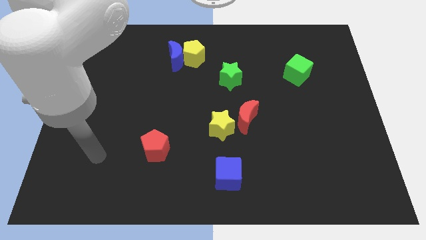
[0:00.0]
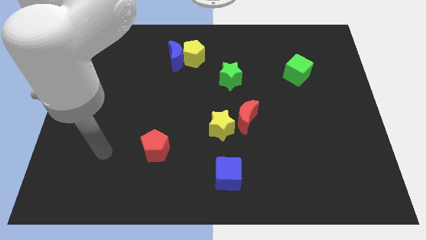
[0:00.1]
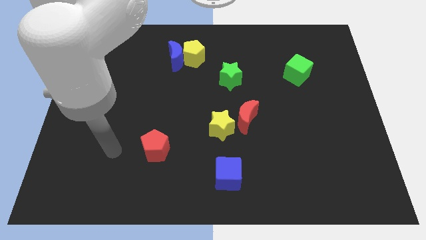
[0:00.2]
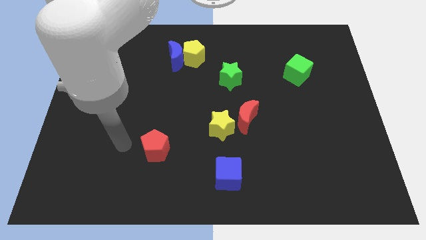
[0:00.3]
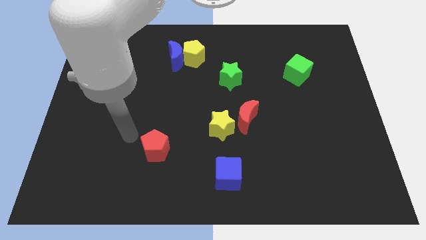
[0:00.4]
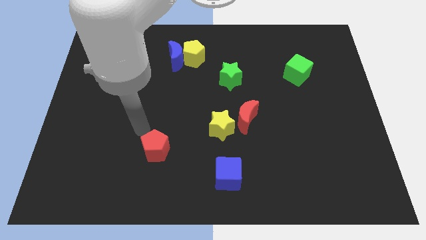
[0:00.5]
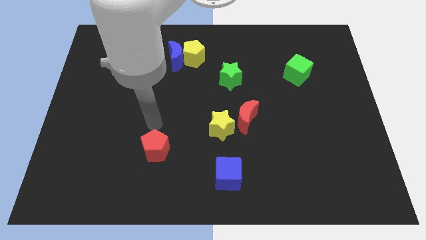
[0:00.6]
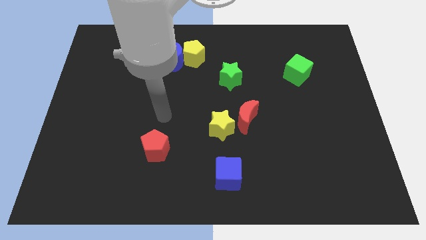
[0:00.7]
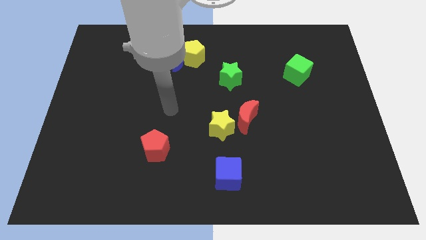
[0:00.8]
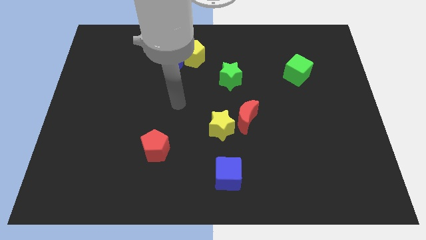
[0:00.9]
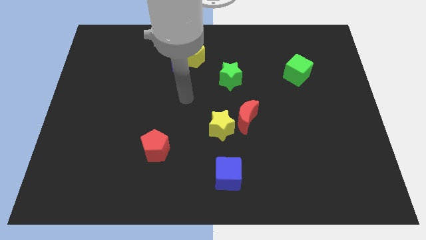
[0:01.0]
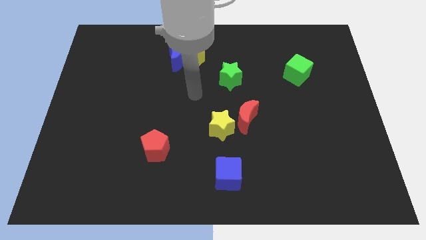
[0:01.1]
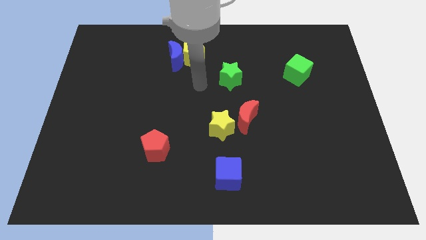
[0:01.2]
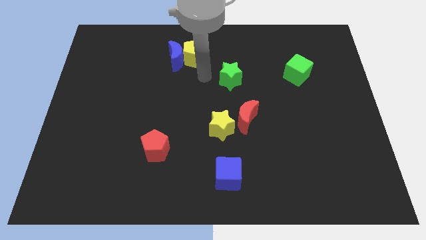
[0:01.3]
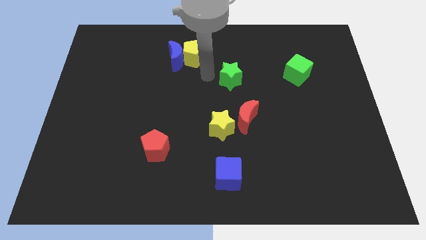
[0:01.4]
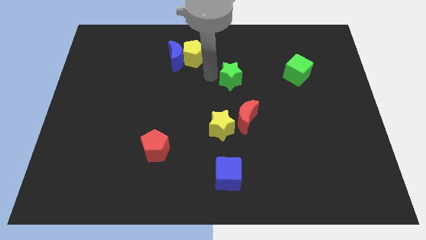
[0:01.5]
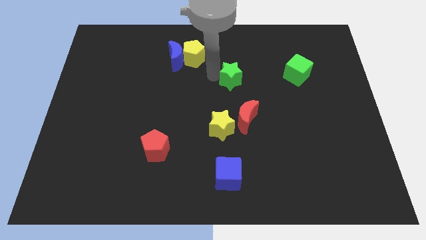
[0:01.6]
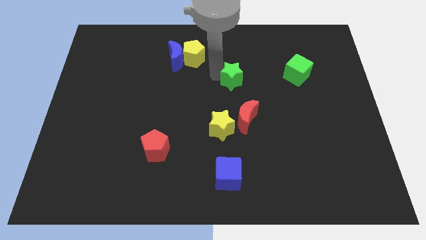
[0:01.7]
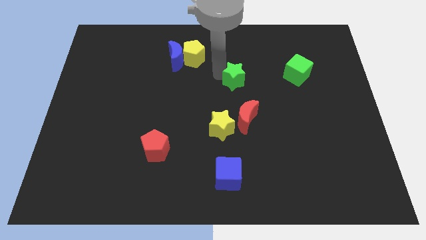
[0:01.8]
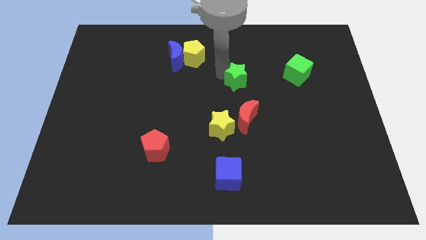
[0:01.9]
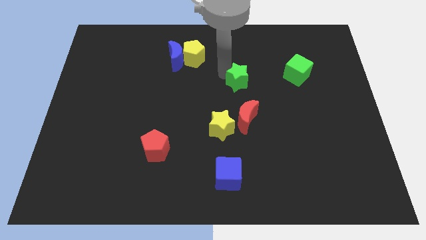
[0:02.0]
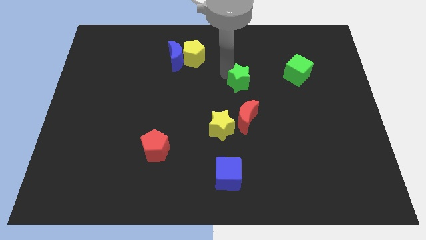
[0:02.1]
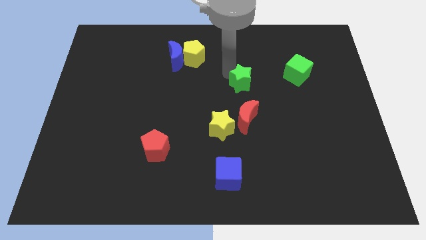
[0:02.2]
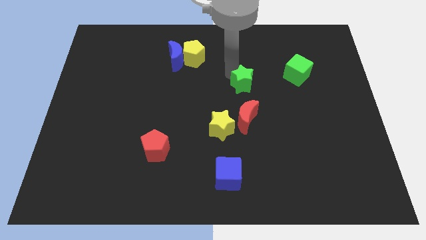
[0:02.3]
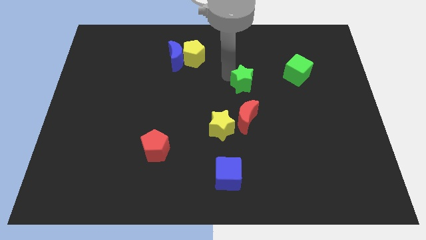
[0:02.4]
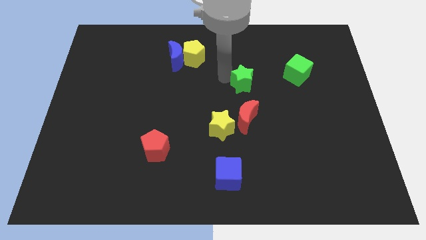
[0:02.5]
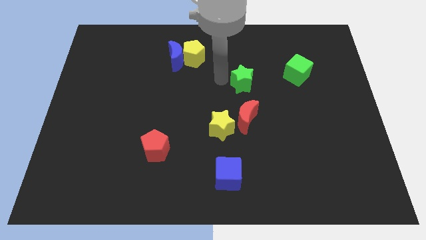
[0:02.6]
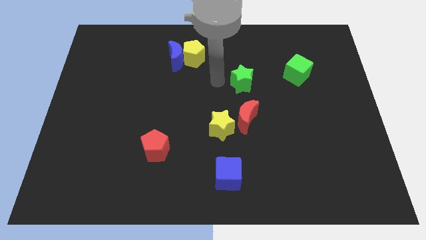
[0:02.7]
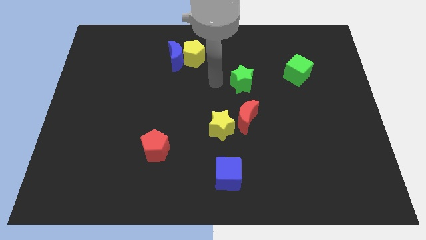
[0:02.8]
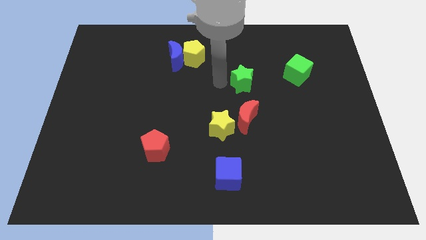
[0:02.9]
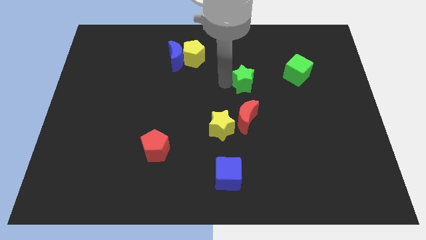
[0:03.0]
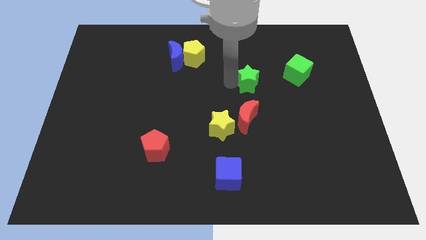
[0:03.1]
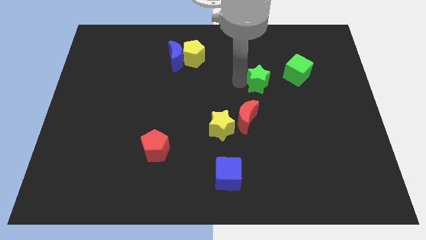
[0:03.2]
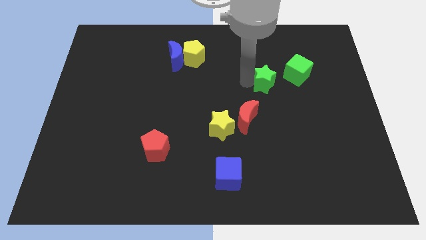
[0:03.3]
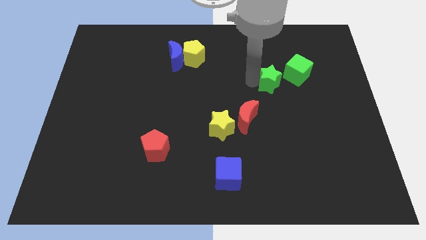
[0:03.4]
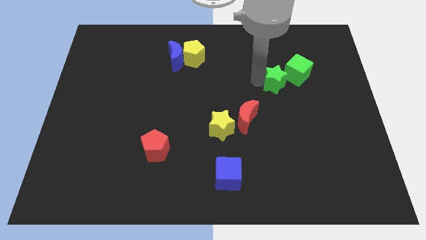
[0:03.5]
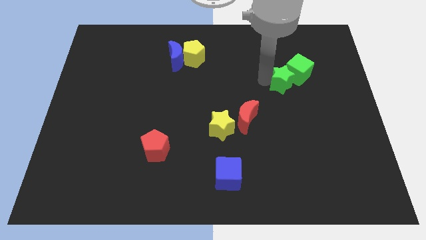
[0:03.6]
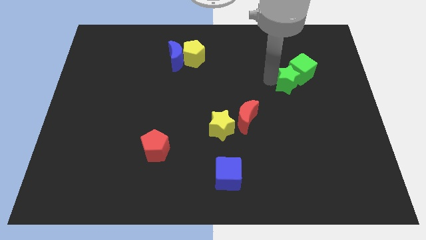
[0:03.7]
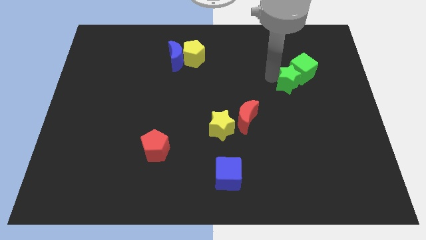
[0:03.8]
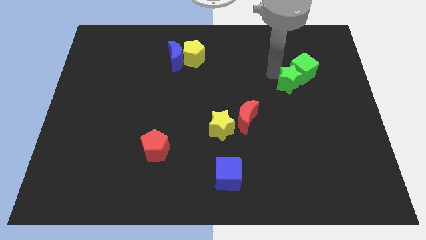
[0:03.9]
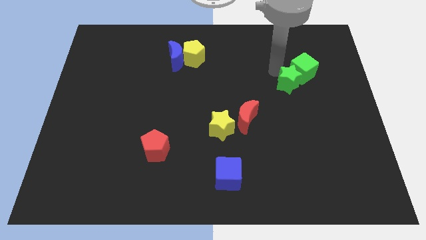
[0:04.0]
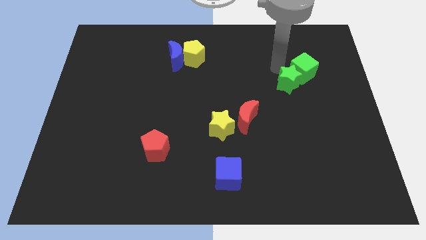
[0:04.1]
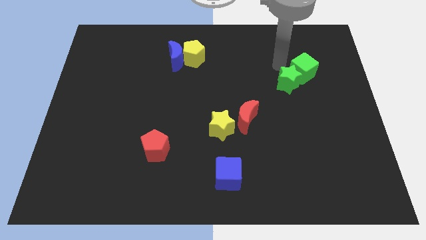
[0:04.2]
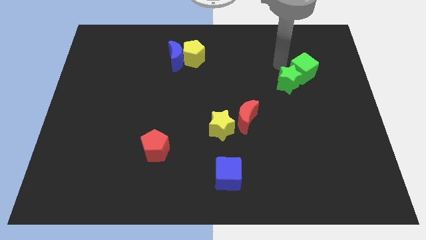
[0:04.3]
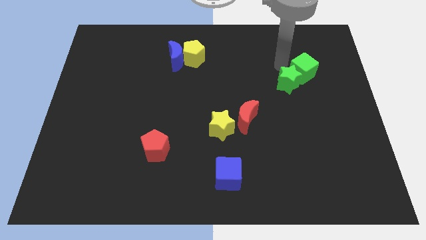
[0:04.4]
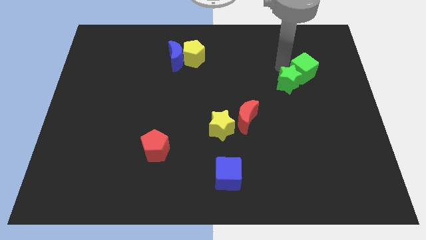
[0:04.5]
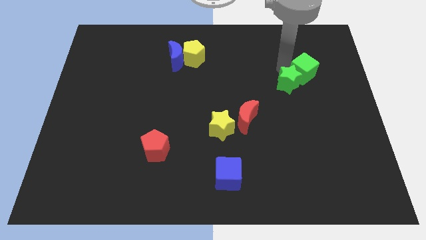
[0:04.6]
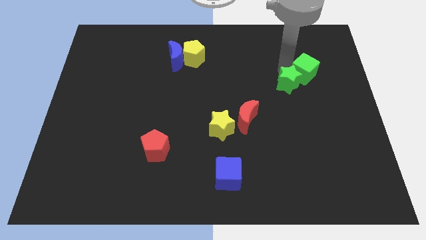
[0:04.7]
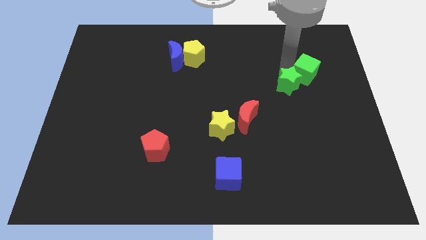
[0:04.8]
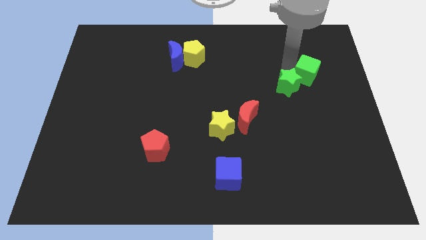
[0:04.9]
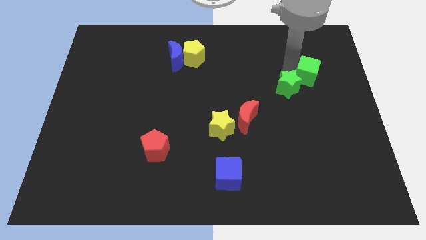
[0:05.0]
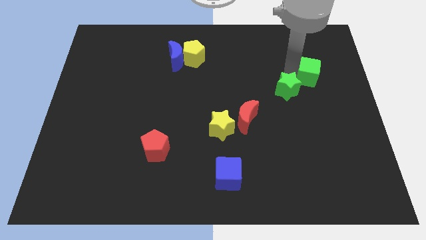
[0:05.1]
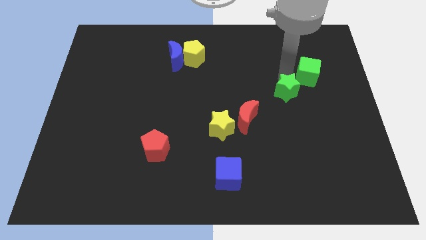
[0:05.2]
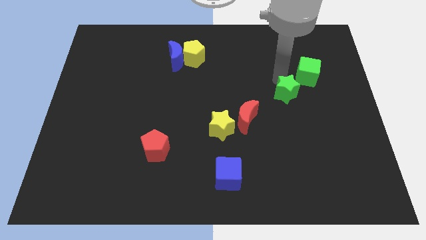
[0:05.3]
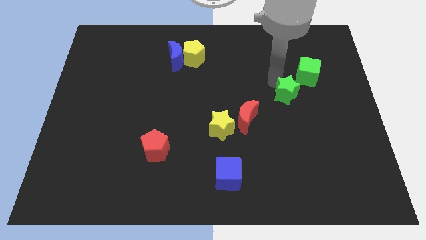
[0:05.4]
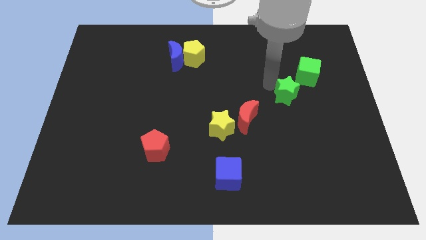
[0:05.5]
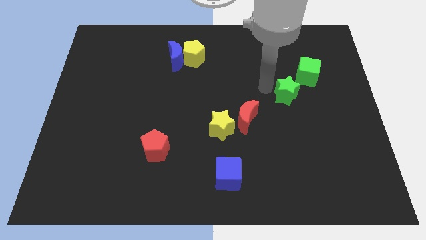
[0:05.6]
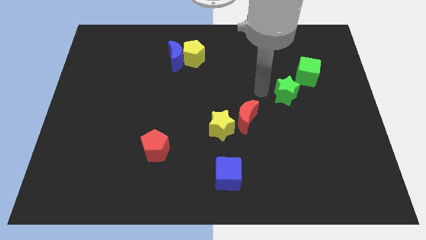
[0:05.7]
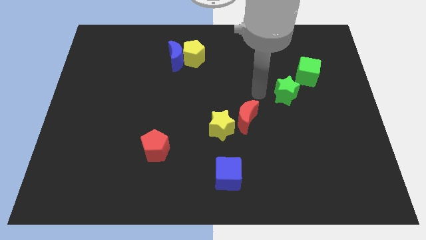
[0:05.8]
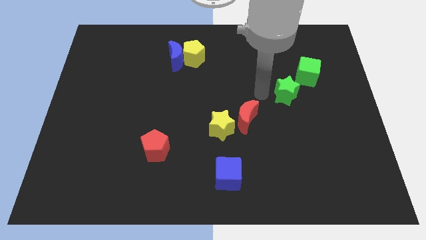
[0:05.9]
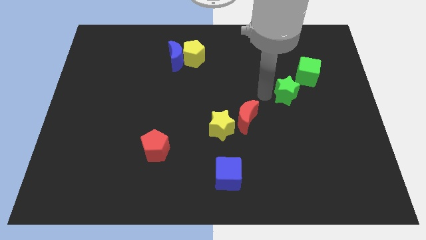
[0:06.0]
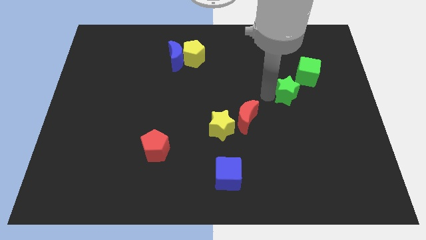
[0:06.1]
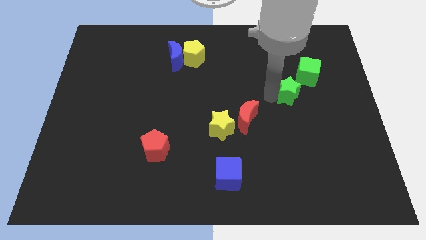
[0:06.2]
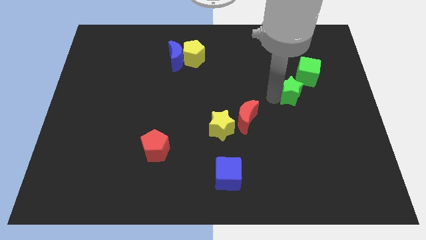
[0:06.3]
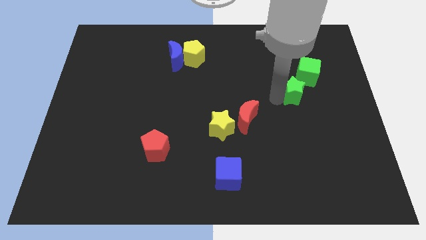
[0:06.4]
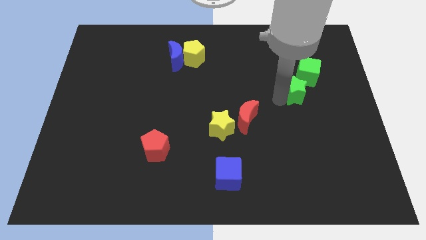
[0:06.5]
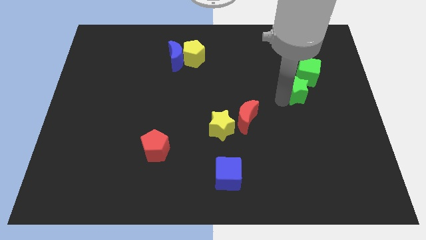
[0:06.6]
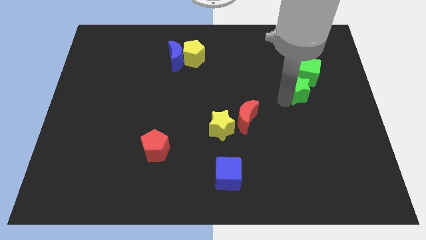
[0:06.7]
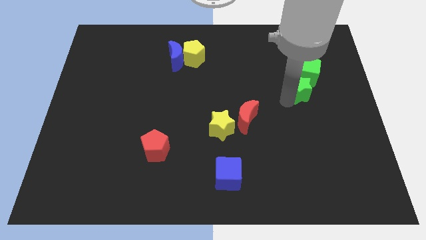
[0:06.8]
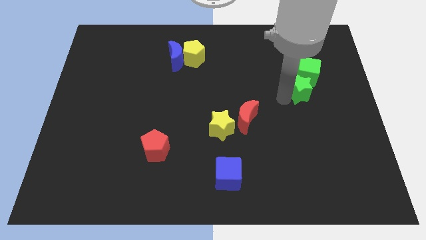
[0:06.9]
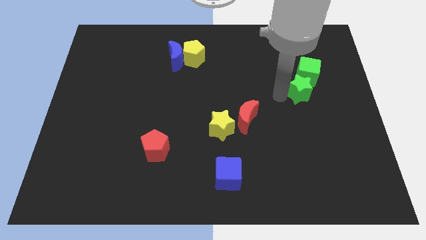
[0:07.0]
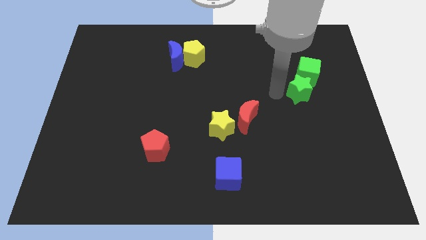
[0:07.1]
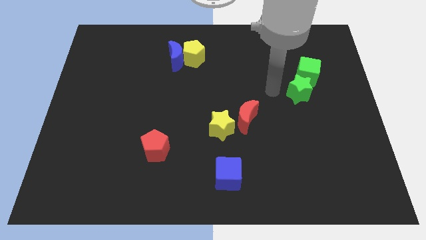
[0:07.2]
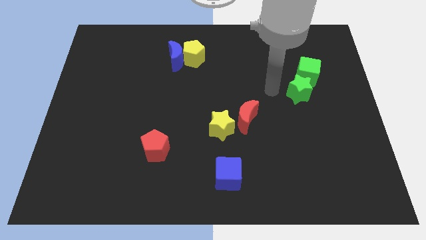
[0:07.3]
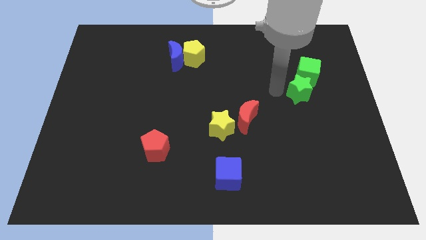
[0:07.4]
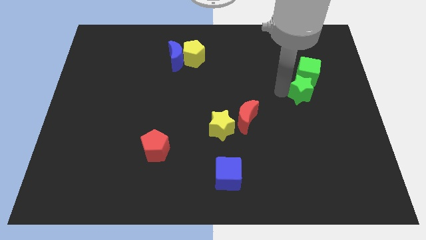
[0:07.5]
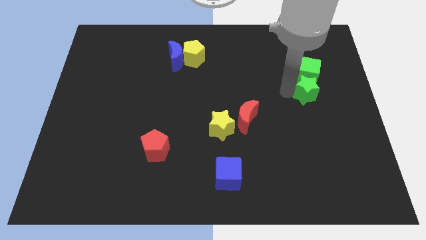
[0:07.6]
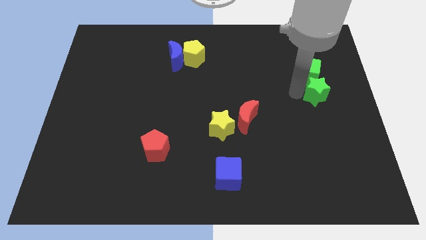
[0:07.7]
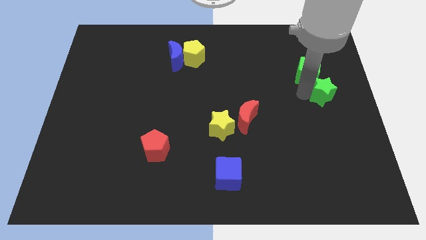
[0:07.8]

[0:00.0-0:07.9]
push the green star to the right side
